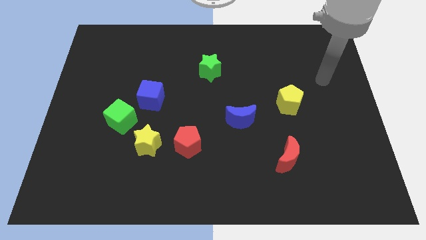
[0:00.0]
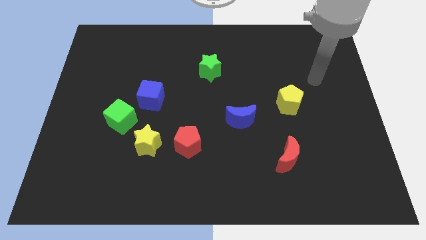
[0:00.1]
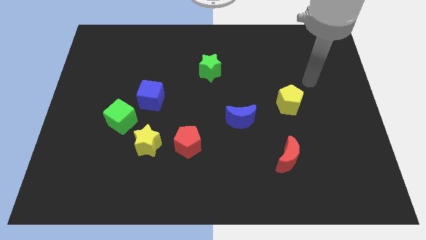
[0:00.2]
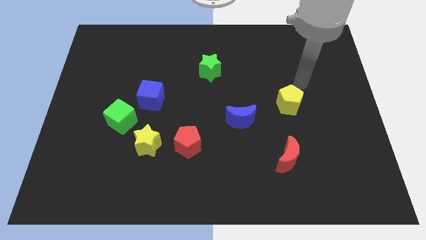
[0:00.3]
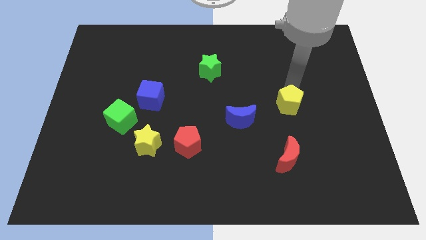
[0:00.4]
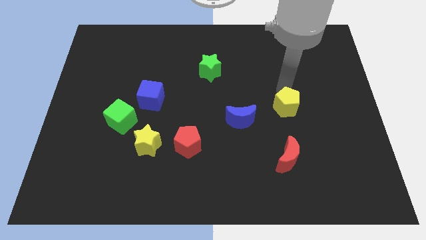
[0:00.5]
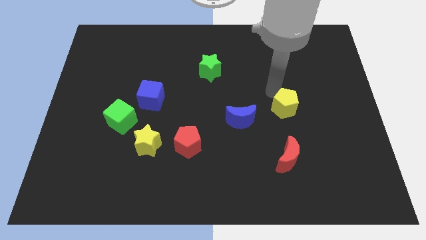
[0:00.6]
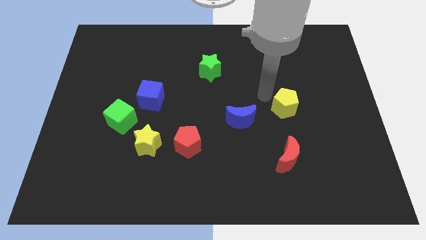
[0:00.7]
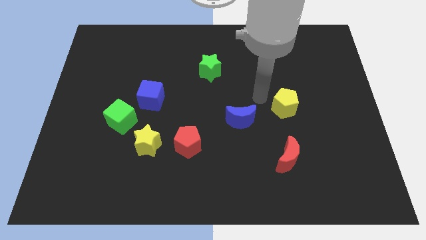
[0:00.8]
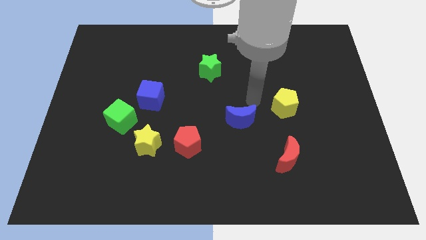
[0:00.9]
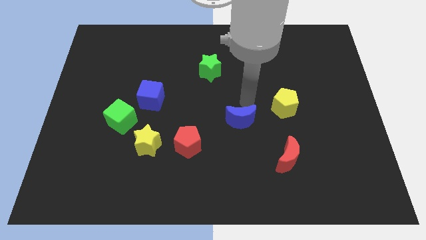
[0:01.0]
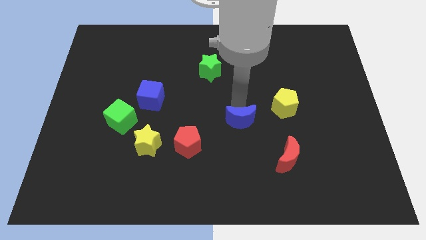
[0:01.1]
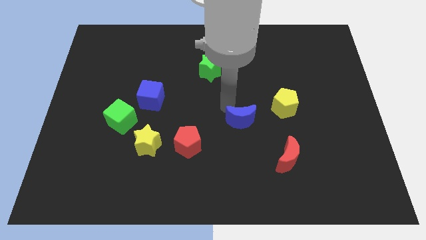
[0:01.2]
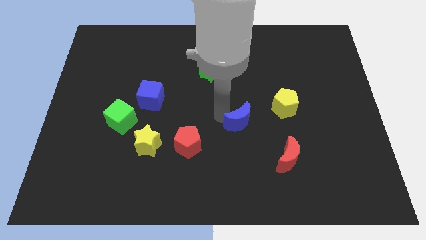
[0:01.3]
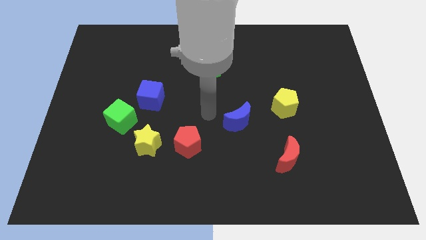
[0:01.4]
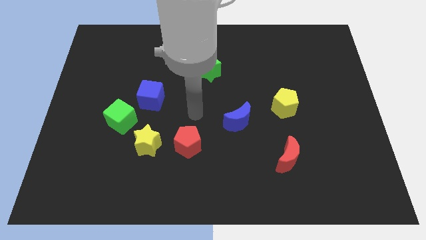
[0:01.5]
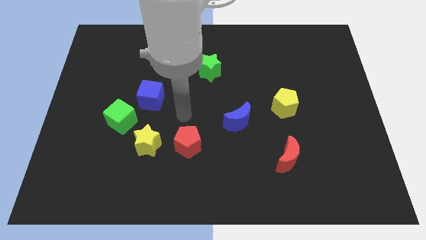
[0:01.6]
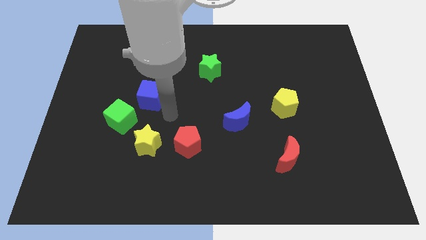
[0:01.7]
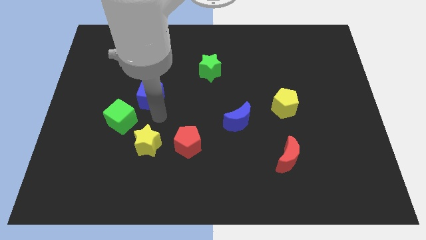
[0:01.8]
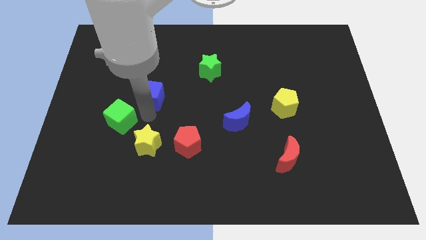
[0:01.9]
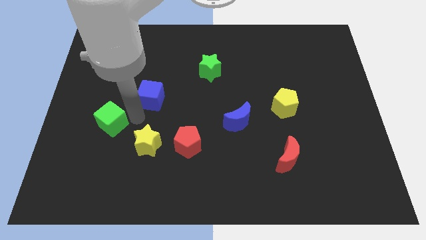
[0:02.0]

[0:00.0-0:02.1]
move the blue cube away from the green cube

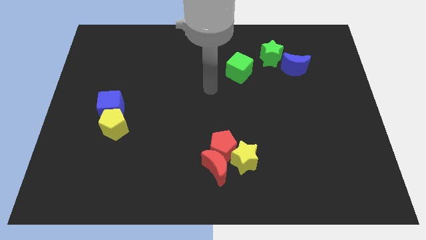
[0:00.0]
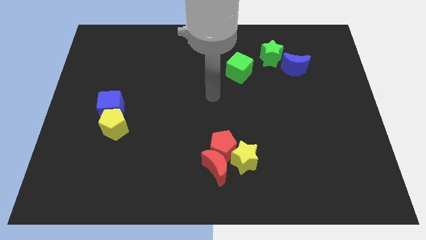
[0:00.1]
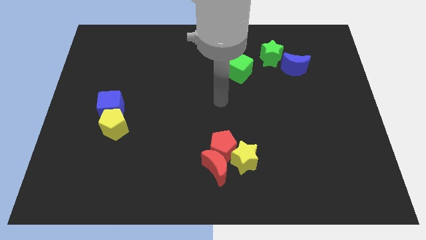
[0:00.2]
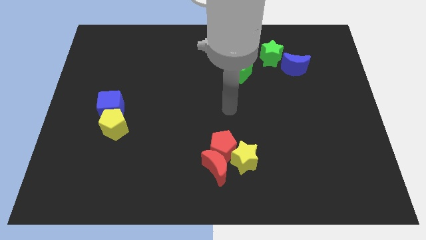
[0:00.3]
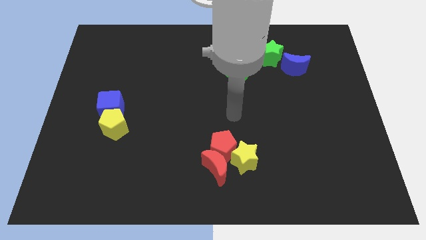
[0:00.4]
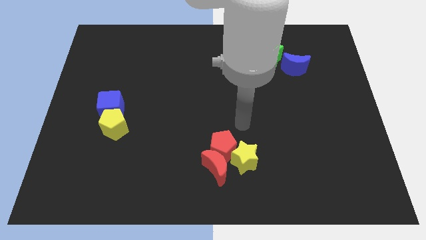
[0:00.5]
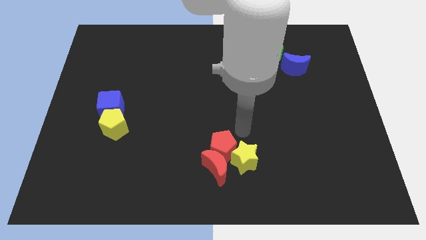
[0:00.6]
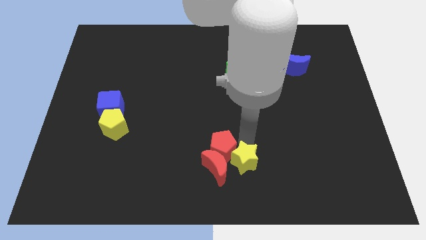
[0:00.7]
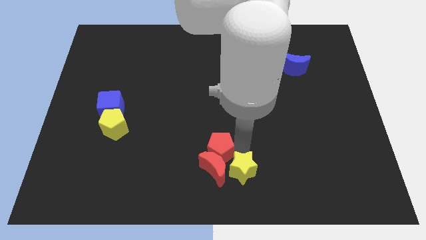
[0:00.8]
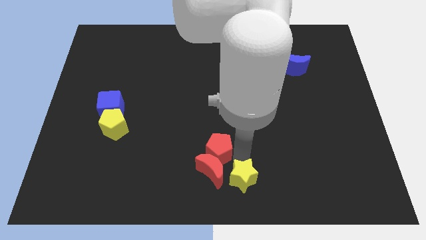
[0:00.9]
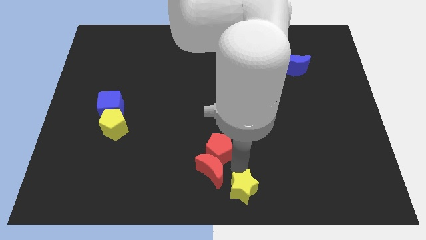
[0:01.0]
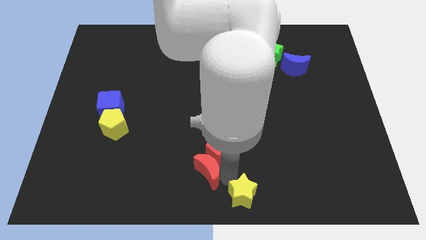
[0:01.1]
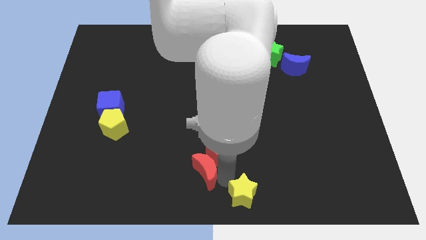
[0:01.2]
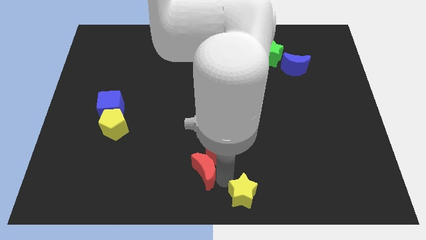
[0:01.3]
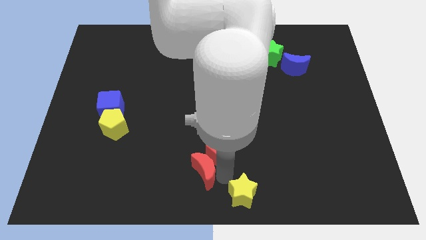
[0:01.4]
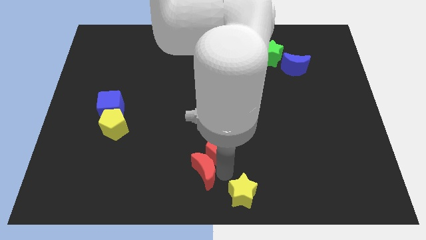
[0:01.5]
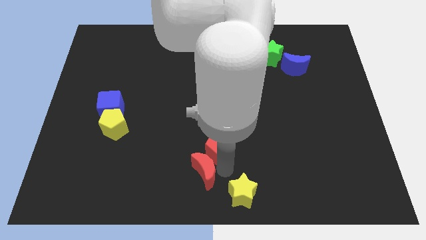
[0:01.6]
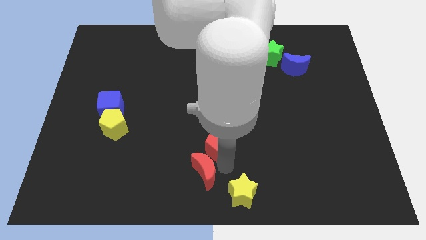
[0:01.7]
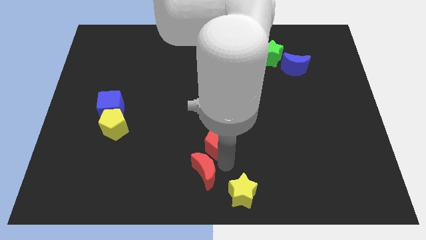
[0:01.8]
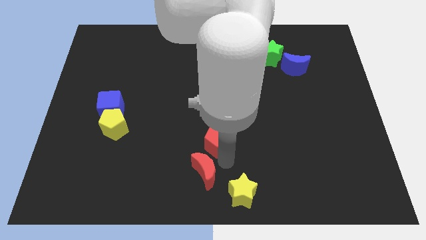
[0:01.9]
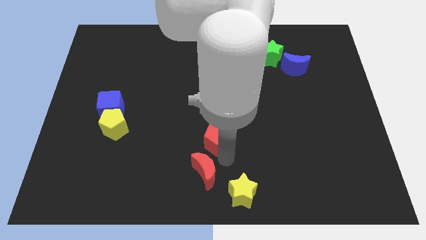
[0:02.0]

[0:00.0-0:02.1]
pull the red pentagon apart from the red moon and yellow star

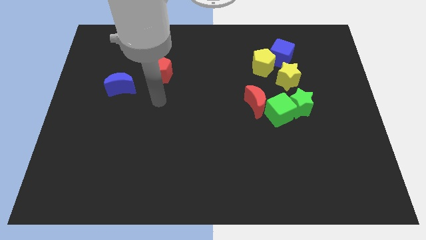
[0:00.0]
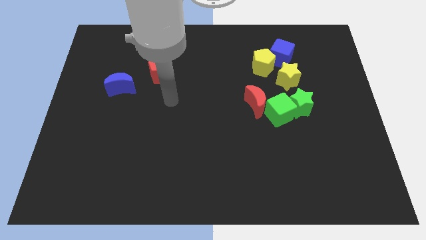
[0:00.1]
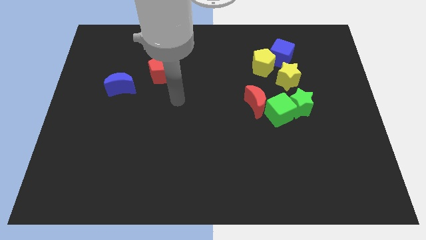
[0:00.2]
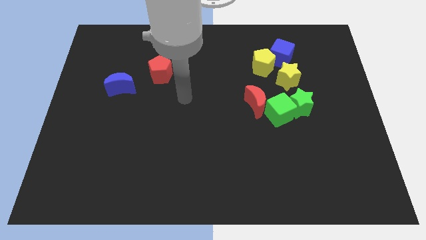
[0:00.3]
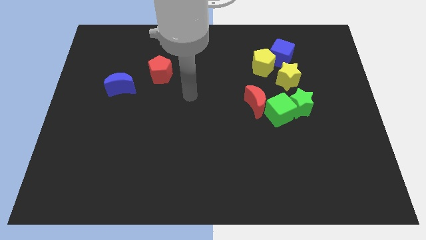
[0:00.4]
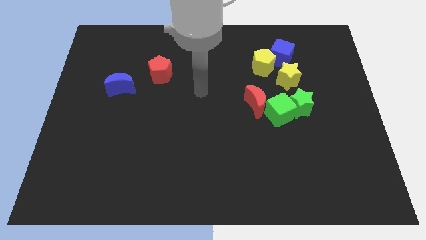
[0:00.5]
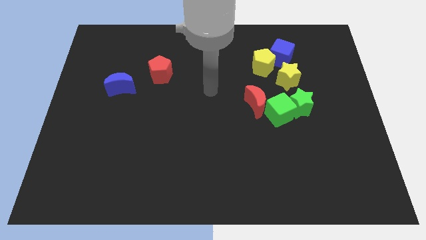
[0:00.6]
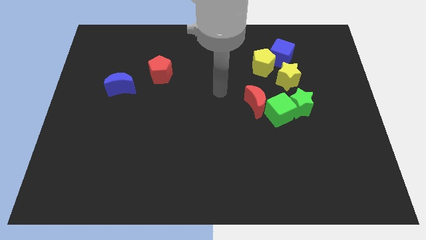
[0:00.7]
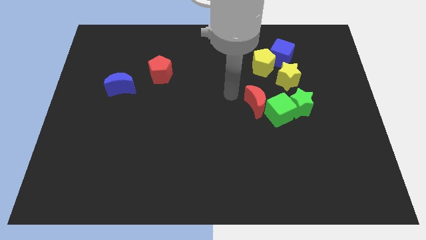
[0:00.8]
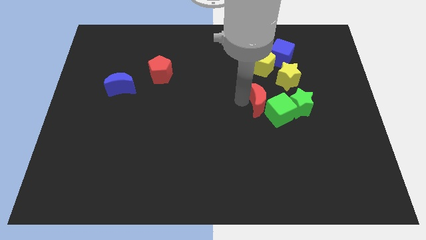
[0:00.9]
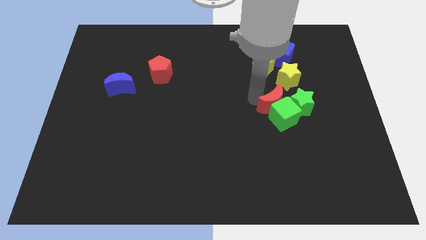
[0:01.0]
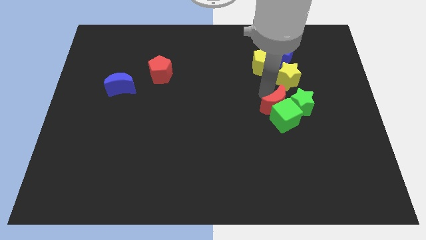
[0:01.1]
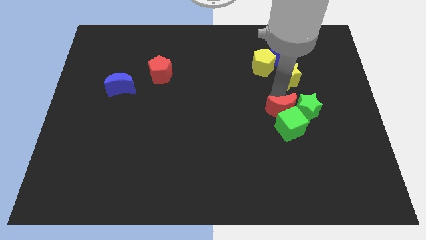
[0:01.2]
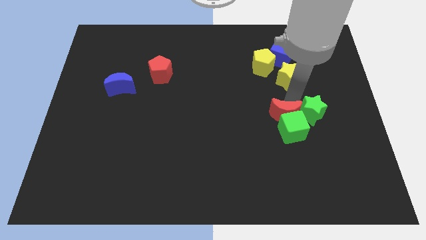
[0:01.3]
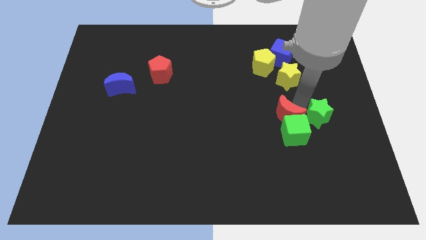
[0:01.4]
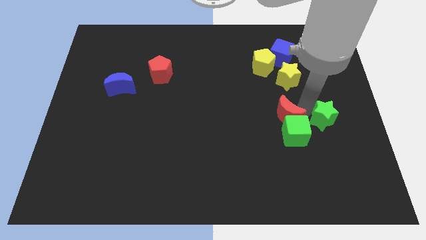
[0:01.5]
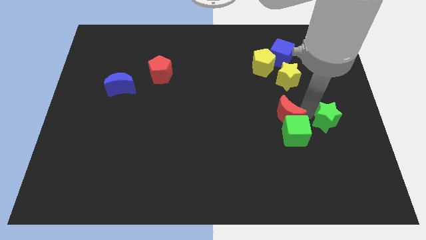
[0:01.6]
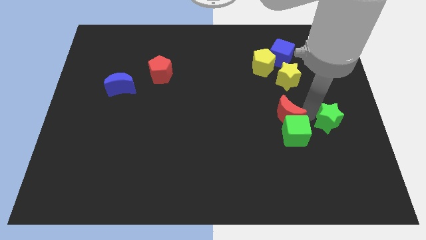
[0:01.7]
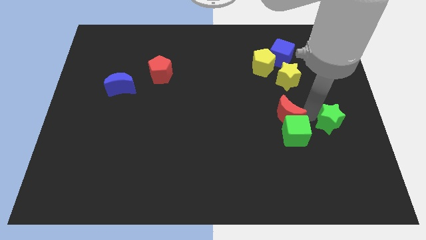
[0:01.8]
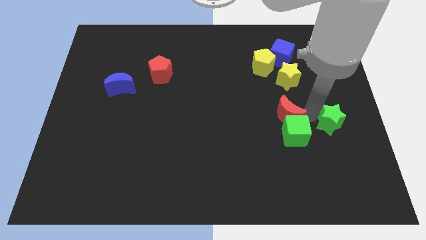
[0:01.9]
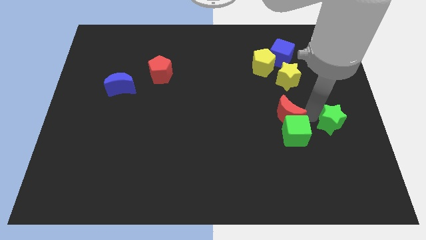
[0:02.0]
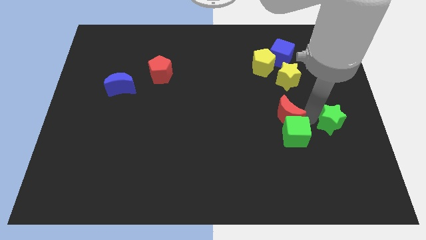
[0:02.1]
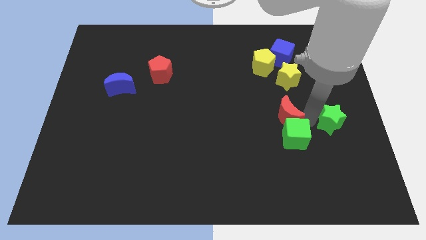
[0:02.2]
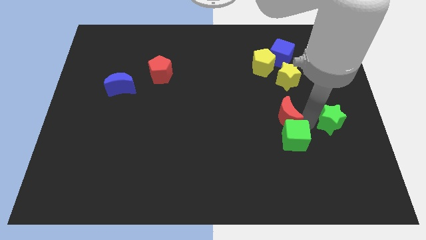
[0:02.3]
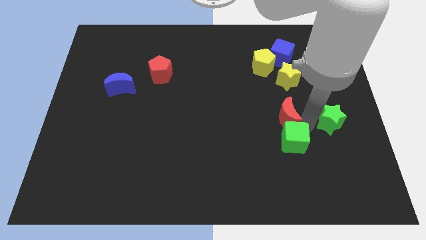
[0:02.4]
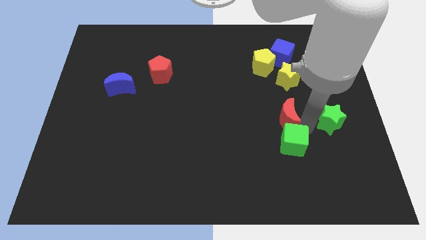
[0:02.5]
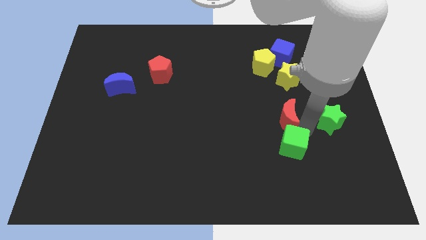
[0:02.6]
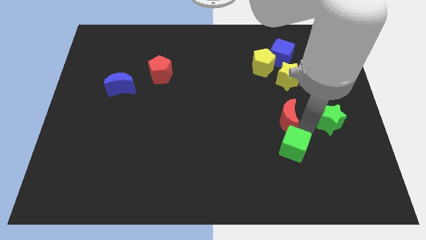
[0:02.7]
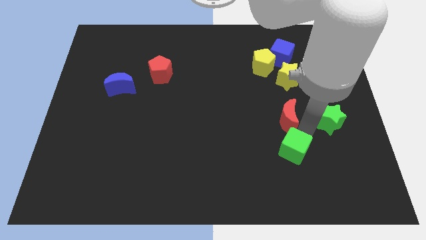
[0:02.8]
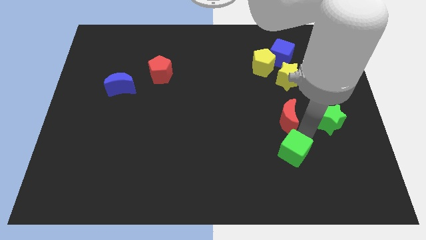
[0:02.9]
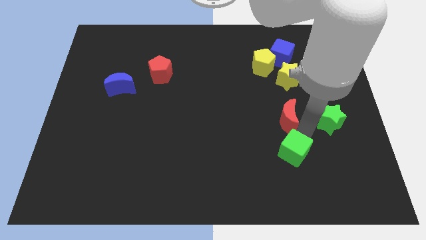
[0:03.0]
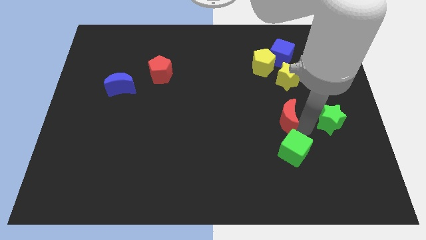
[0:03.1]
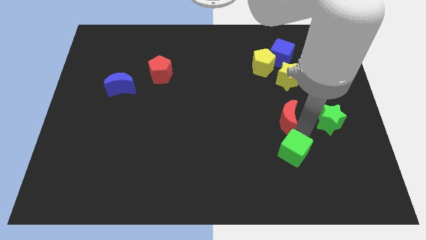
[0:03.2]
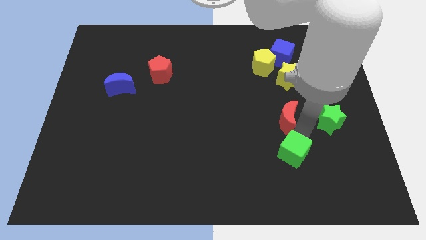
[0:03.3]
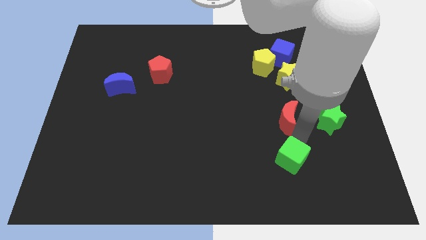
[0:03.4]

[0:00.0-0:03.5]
pull the green cube apart from the green star and red moon

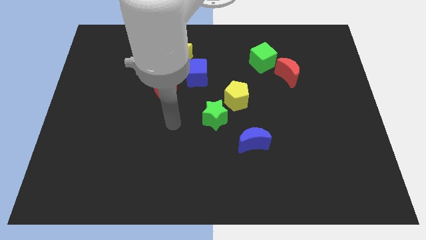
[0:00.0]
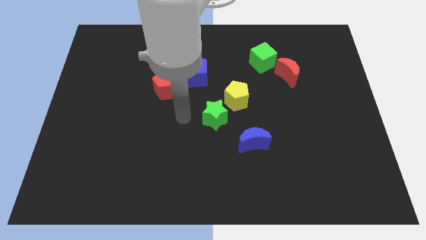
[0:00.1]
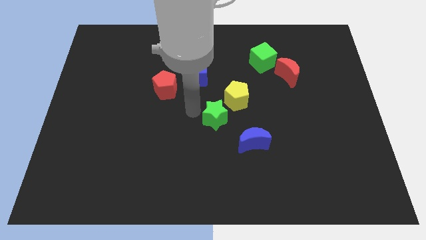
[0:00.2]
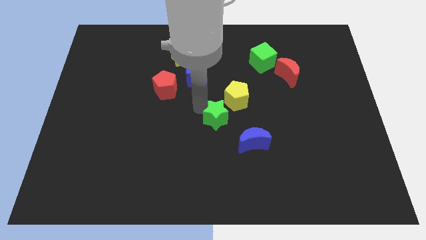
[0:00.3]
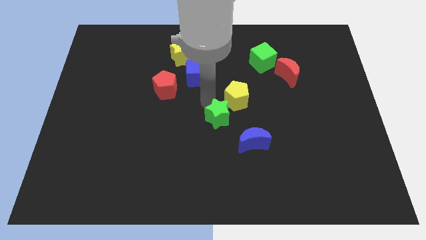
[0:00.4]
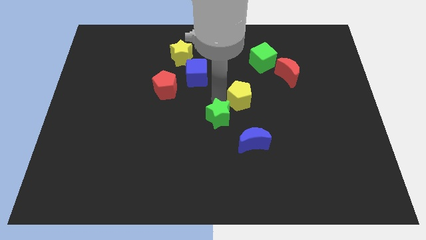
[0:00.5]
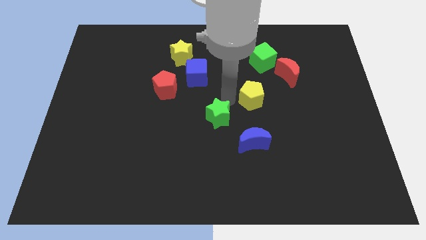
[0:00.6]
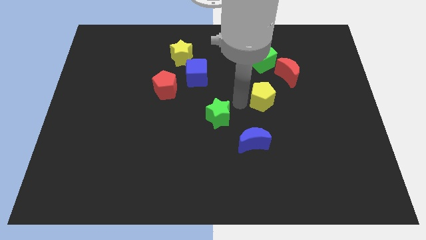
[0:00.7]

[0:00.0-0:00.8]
move the green star away from the yellow pentagon

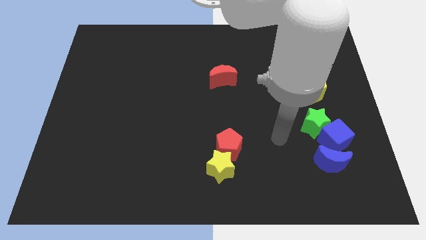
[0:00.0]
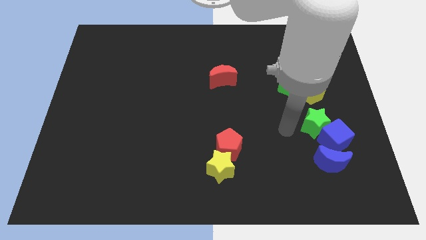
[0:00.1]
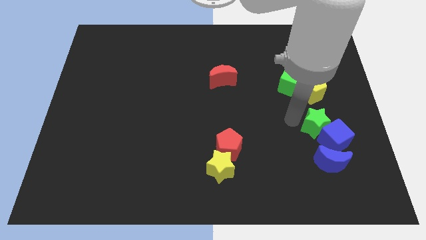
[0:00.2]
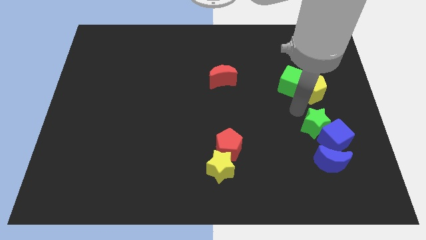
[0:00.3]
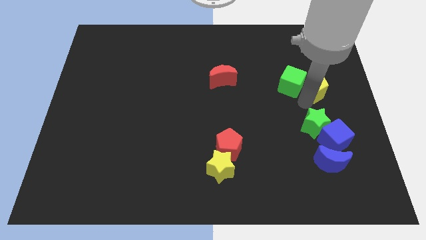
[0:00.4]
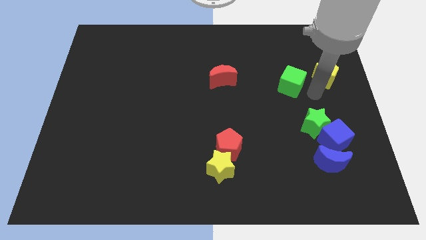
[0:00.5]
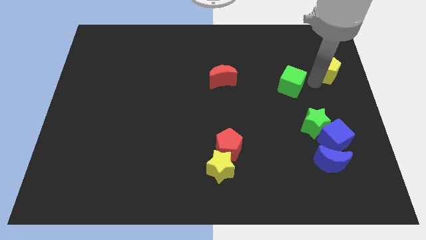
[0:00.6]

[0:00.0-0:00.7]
separate the green cube from the yellow pentagon

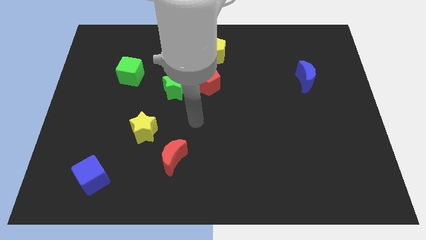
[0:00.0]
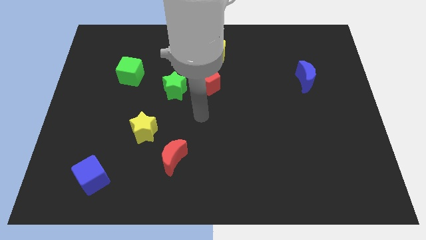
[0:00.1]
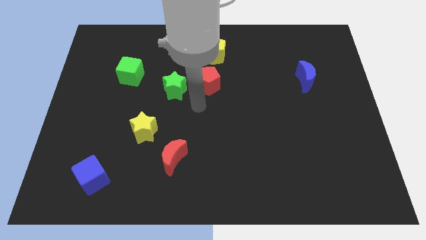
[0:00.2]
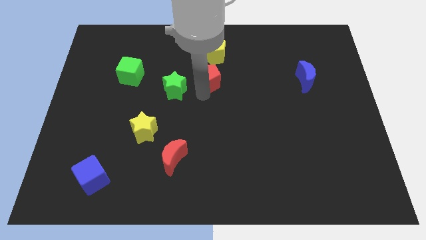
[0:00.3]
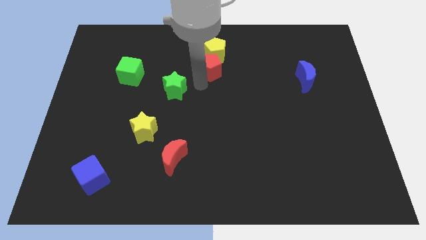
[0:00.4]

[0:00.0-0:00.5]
move the green star away from the red pentagon
